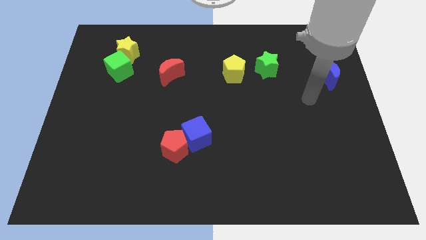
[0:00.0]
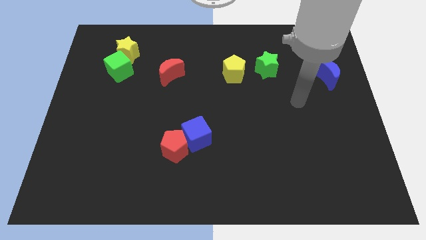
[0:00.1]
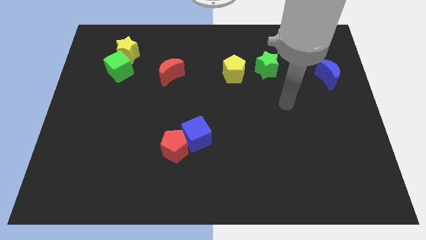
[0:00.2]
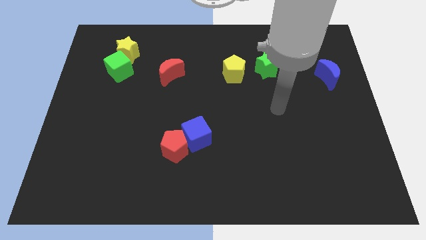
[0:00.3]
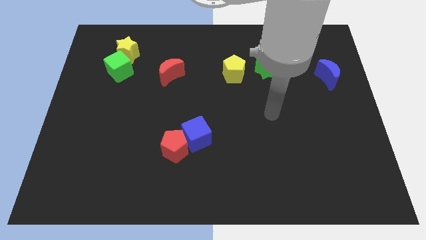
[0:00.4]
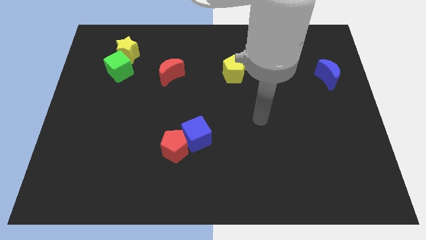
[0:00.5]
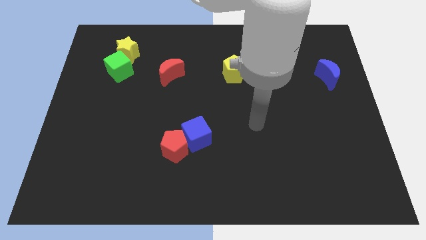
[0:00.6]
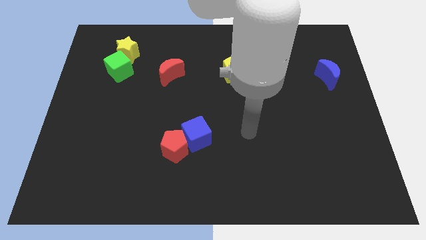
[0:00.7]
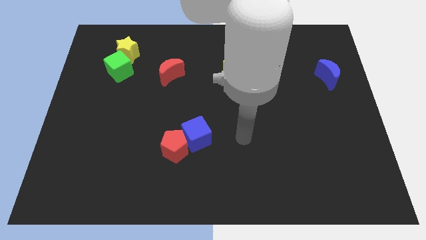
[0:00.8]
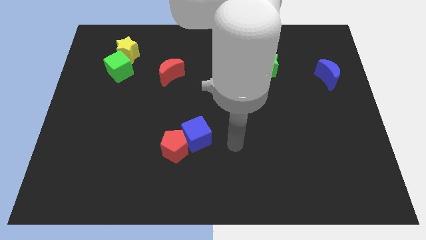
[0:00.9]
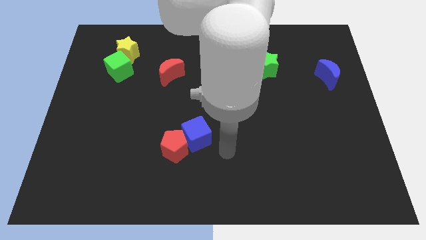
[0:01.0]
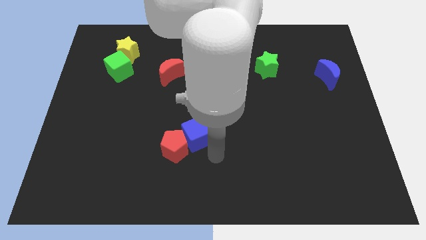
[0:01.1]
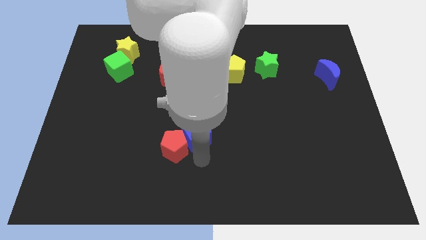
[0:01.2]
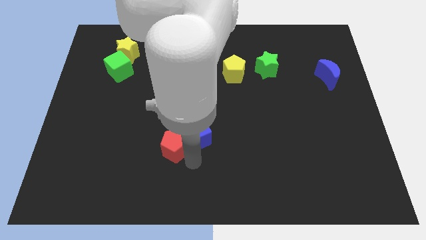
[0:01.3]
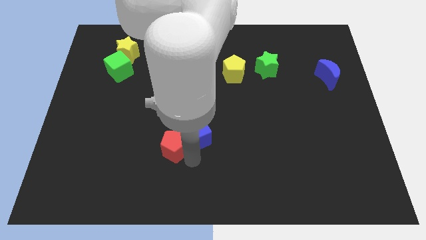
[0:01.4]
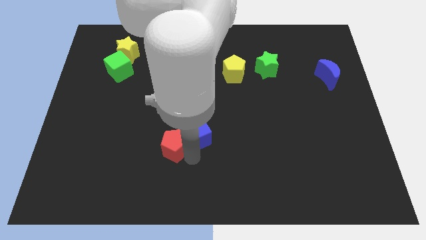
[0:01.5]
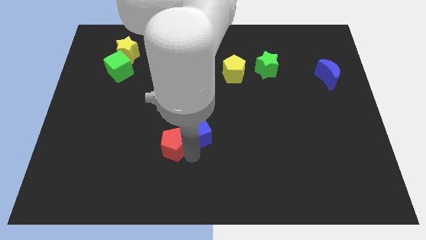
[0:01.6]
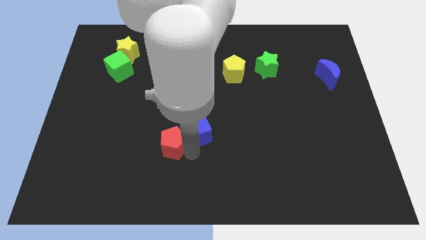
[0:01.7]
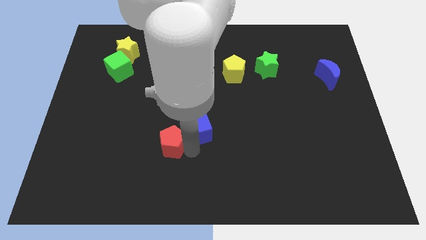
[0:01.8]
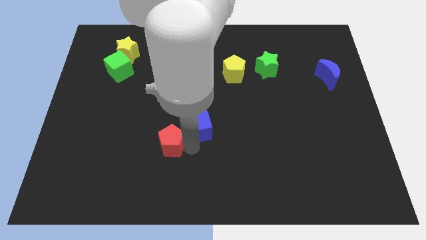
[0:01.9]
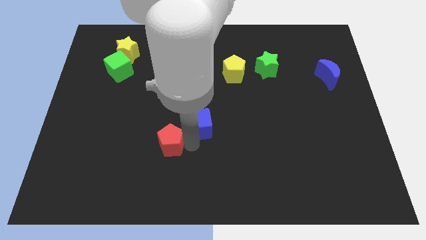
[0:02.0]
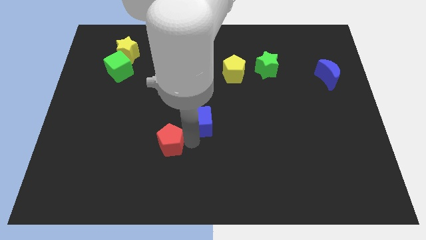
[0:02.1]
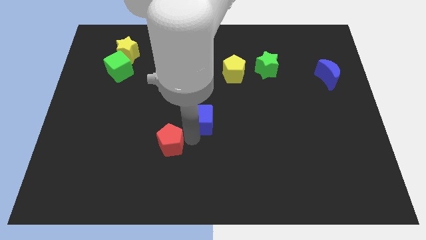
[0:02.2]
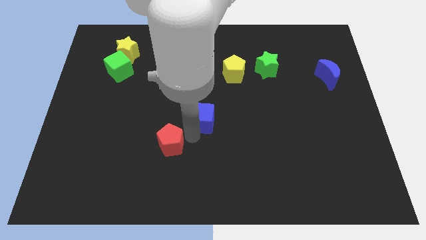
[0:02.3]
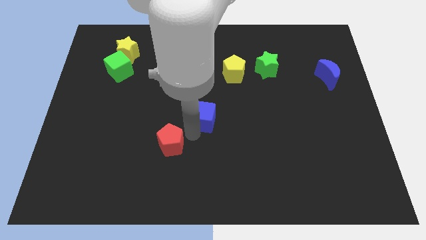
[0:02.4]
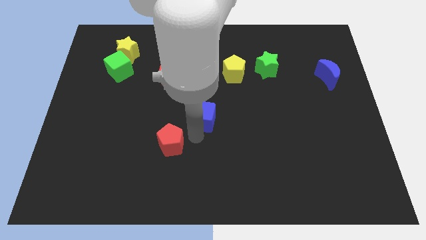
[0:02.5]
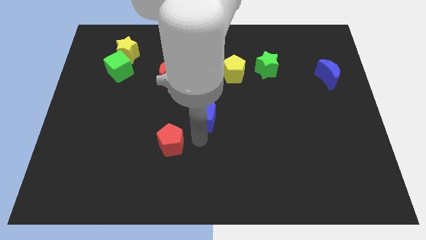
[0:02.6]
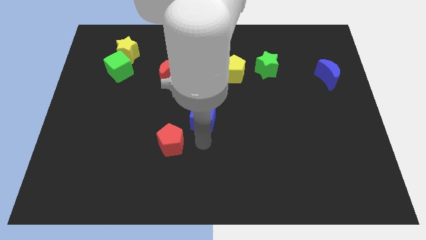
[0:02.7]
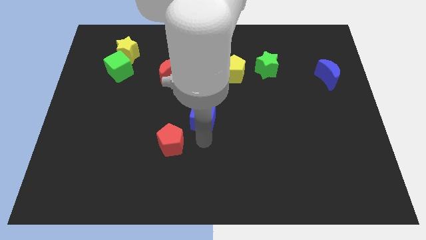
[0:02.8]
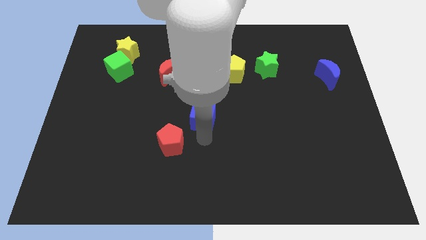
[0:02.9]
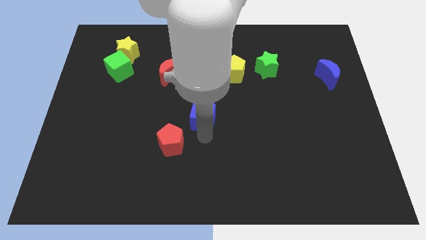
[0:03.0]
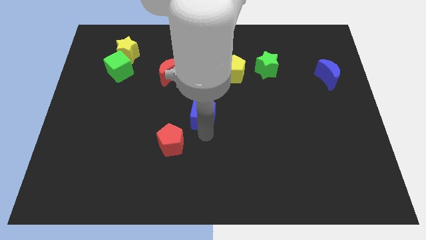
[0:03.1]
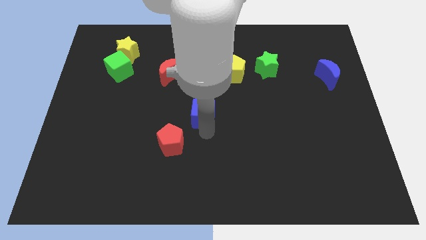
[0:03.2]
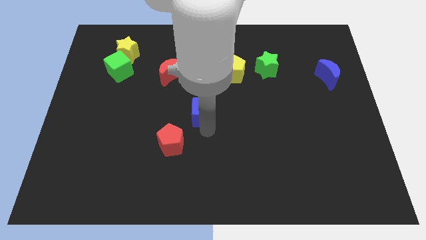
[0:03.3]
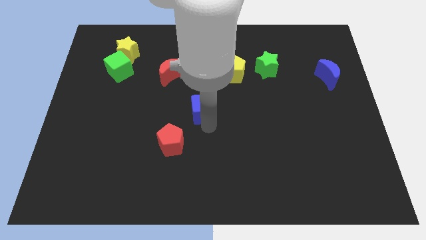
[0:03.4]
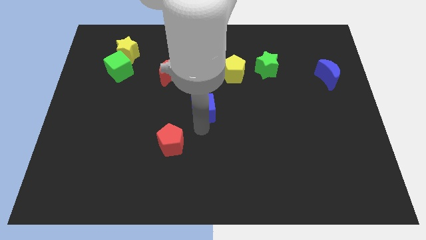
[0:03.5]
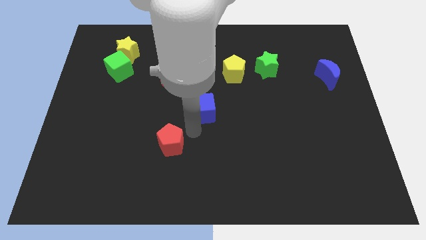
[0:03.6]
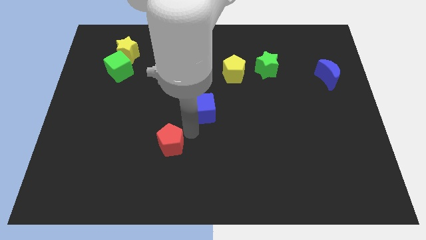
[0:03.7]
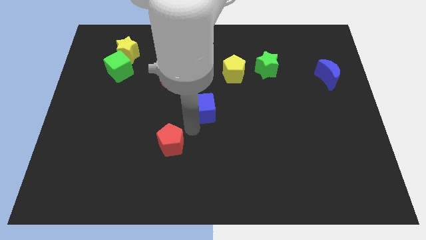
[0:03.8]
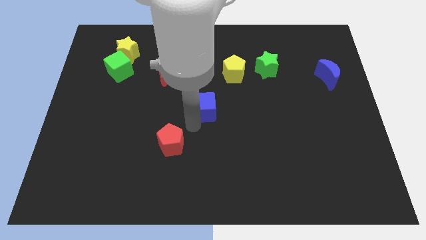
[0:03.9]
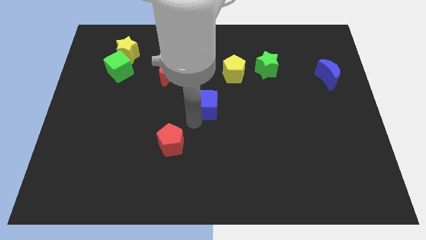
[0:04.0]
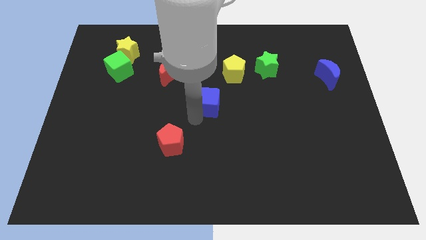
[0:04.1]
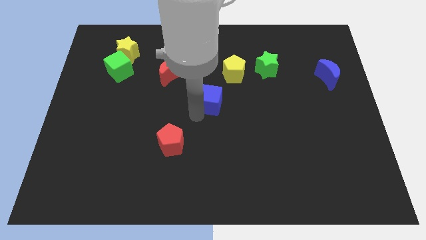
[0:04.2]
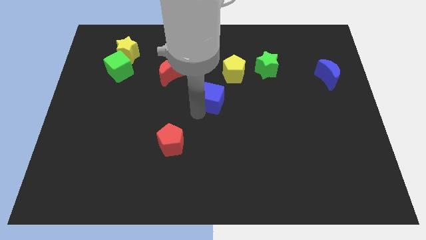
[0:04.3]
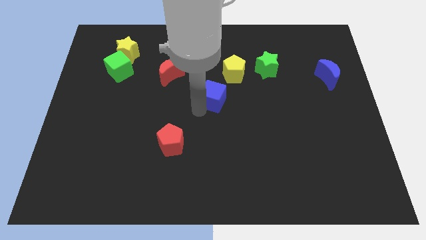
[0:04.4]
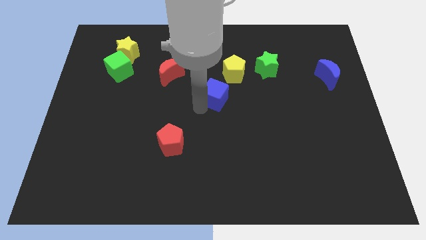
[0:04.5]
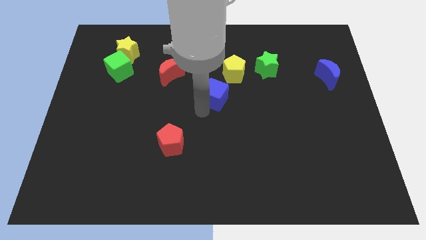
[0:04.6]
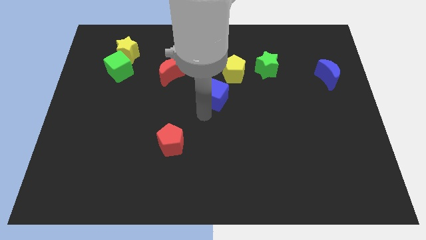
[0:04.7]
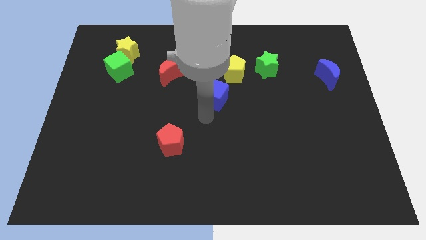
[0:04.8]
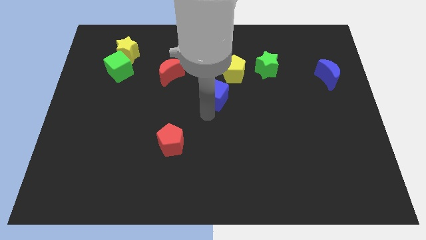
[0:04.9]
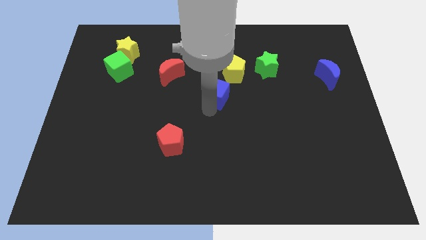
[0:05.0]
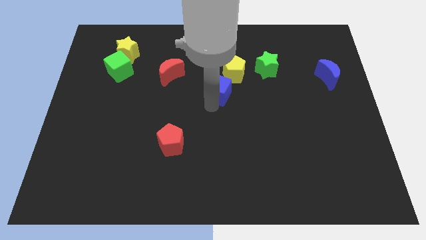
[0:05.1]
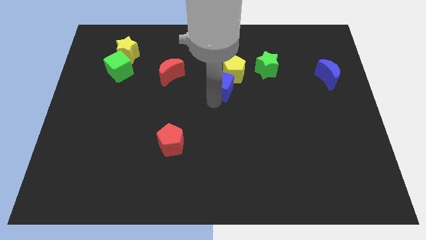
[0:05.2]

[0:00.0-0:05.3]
move the blue cube next to the yellow pentagon

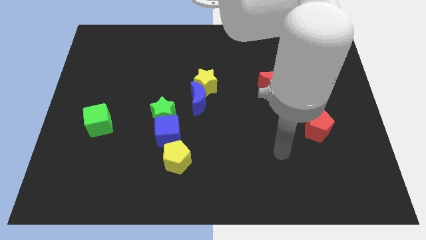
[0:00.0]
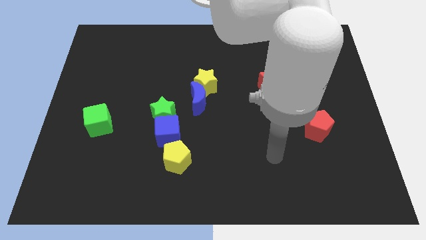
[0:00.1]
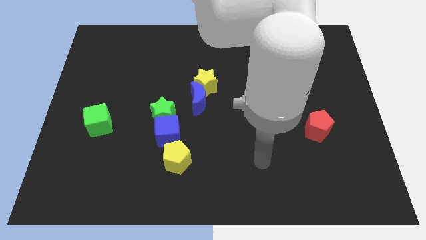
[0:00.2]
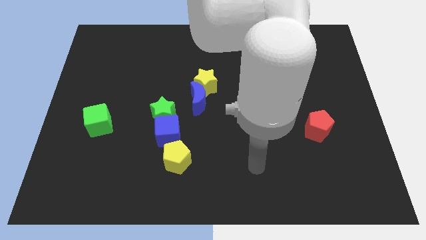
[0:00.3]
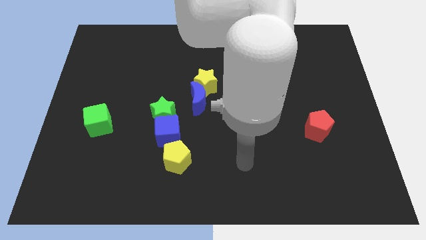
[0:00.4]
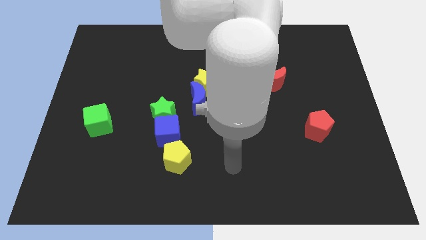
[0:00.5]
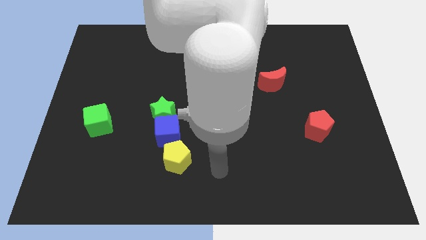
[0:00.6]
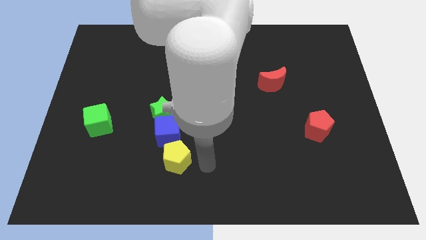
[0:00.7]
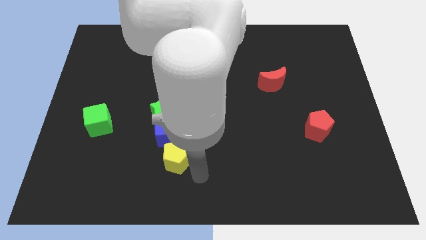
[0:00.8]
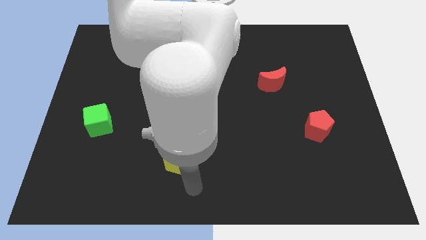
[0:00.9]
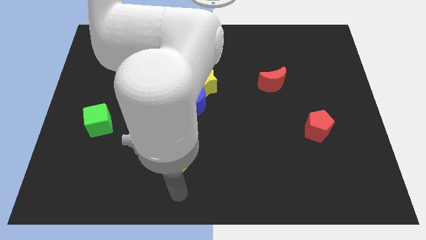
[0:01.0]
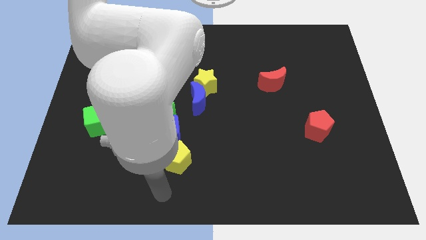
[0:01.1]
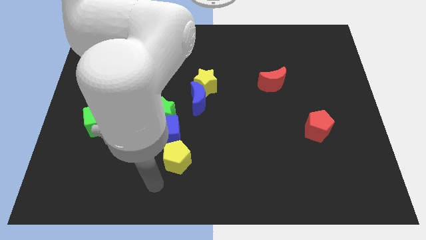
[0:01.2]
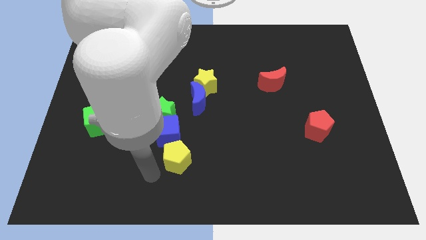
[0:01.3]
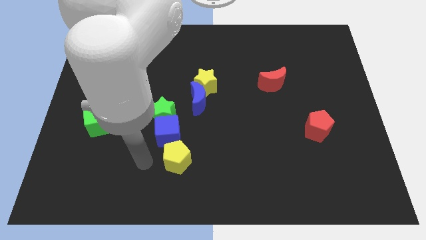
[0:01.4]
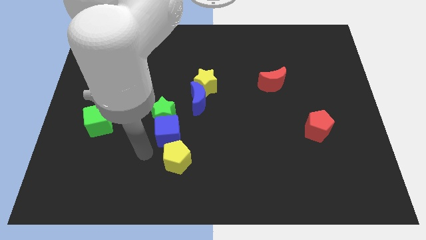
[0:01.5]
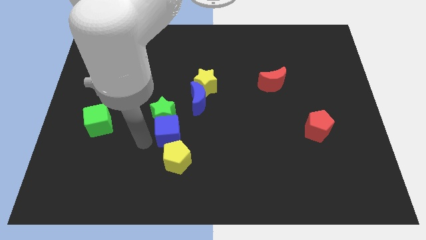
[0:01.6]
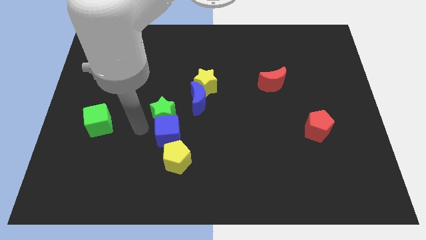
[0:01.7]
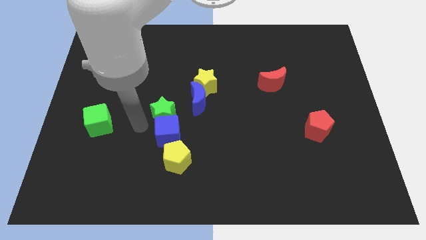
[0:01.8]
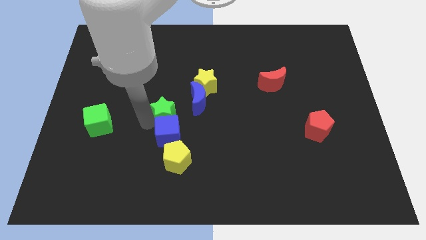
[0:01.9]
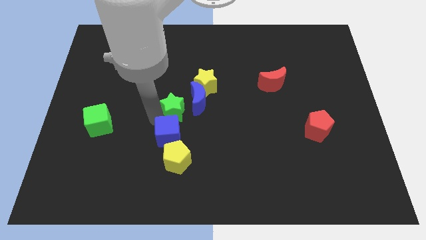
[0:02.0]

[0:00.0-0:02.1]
put the green star to the blue moon
